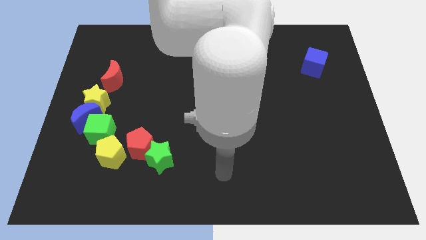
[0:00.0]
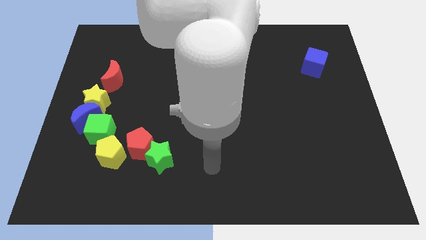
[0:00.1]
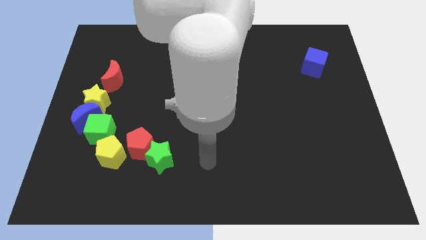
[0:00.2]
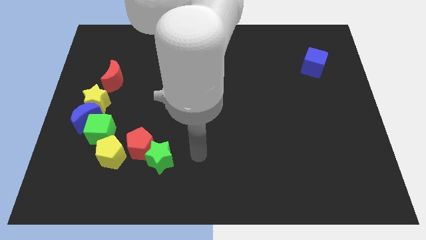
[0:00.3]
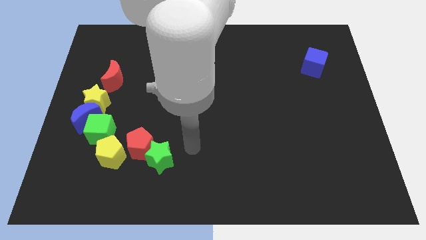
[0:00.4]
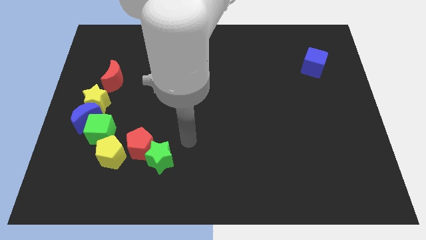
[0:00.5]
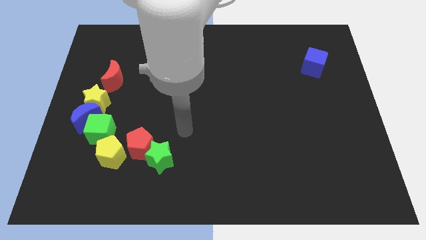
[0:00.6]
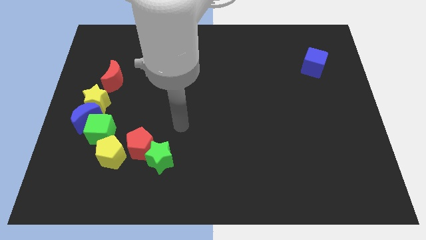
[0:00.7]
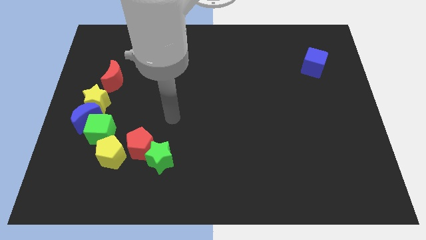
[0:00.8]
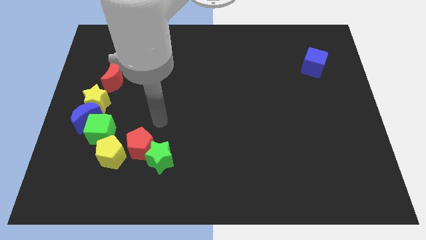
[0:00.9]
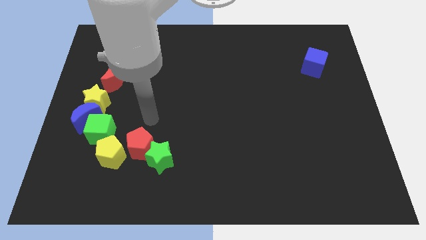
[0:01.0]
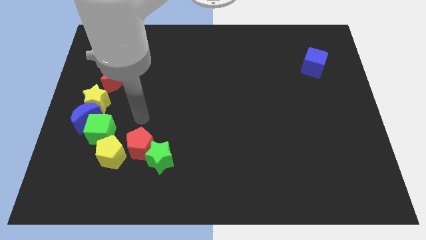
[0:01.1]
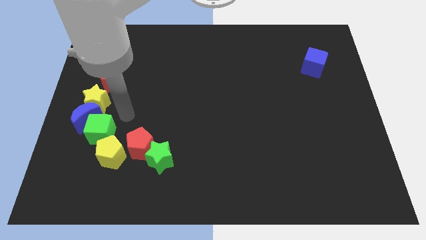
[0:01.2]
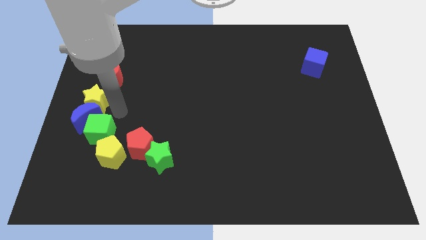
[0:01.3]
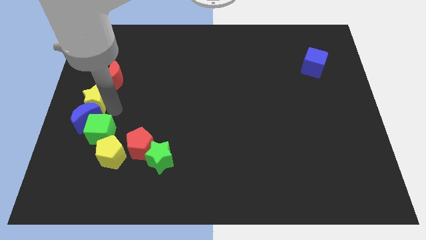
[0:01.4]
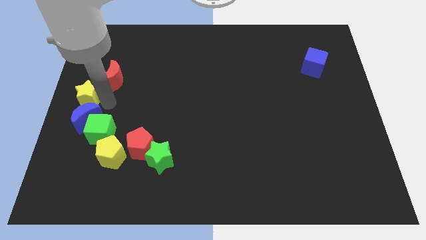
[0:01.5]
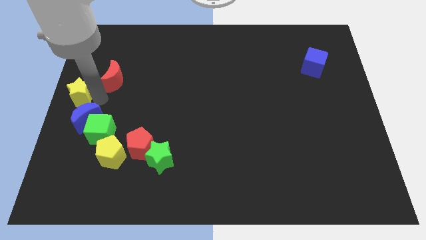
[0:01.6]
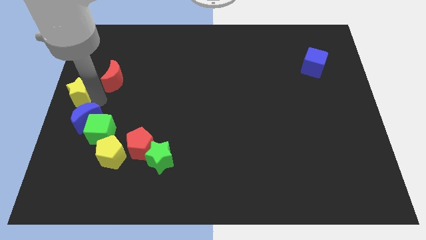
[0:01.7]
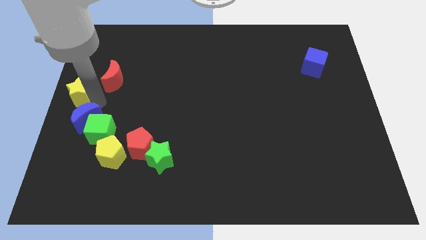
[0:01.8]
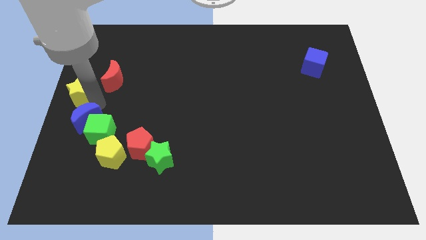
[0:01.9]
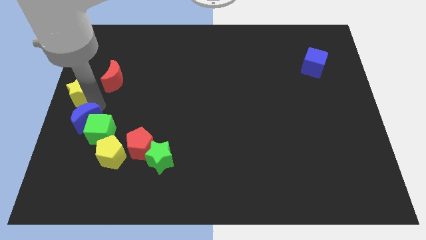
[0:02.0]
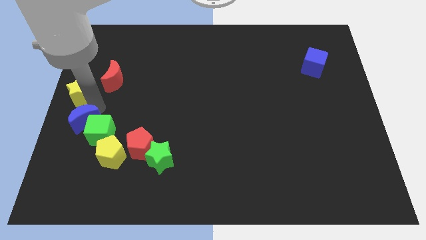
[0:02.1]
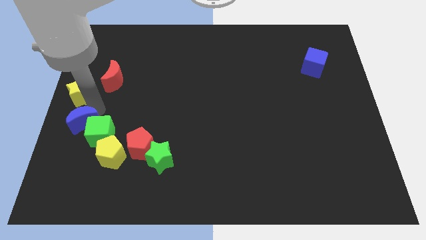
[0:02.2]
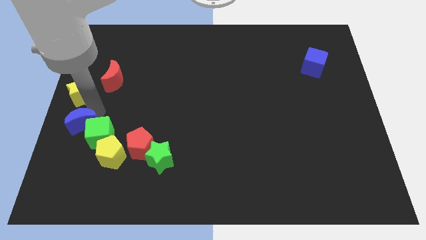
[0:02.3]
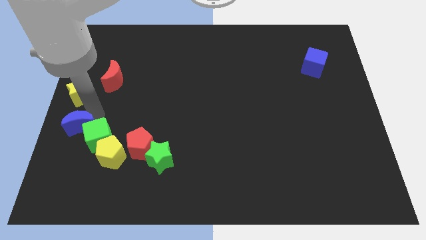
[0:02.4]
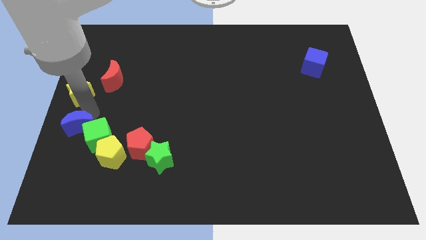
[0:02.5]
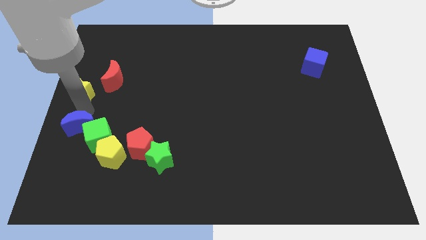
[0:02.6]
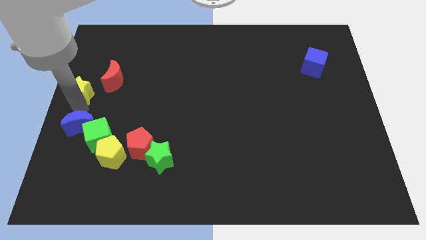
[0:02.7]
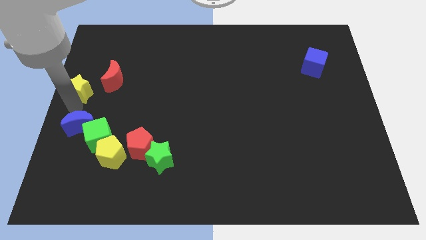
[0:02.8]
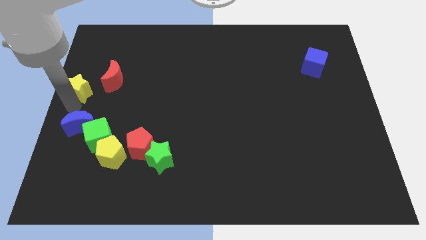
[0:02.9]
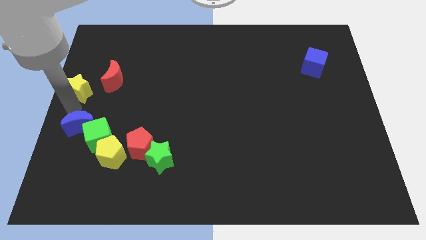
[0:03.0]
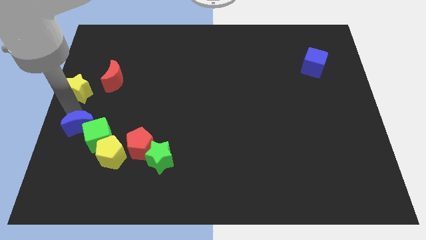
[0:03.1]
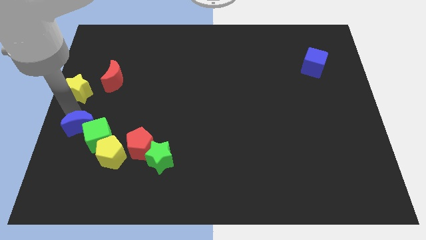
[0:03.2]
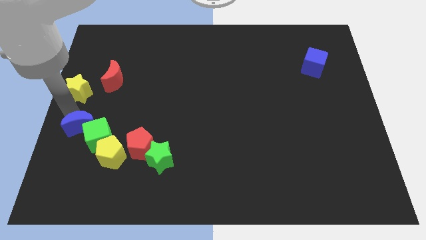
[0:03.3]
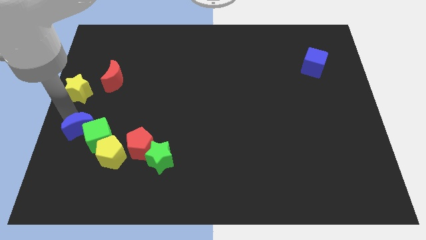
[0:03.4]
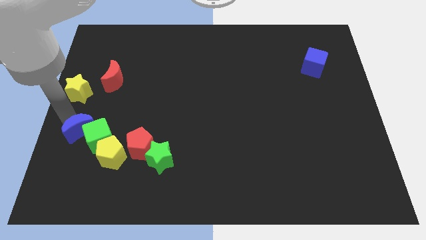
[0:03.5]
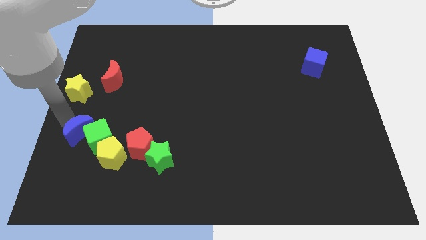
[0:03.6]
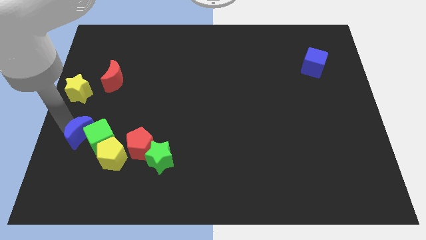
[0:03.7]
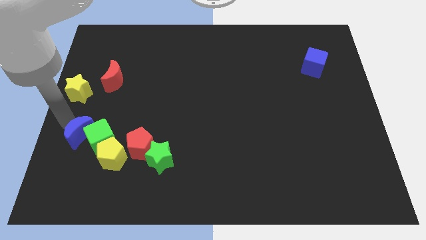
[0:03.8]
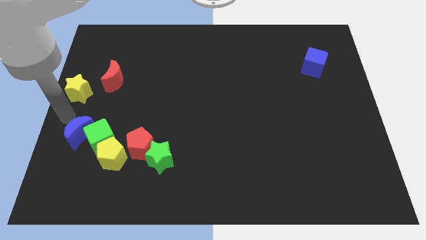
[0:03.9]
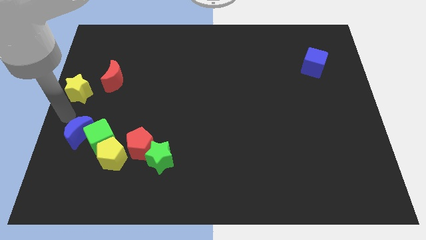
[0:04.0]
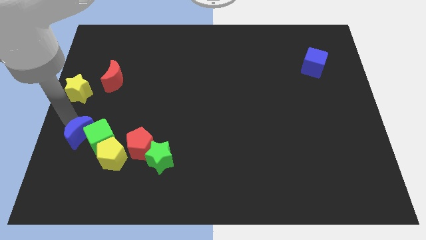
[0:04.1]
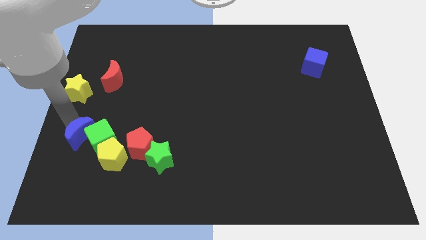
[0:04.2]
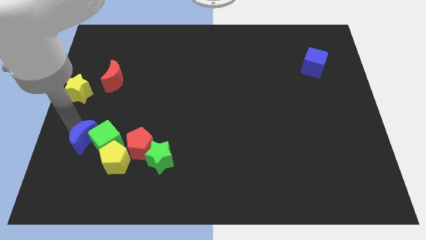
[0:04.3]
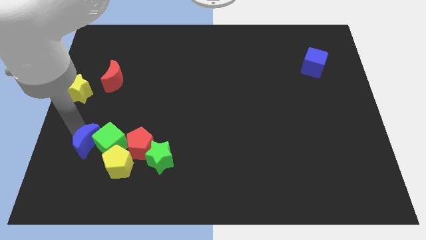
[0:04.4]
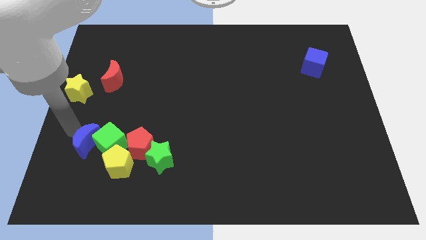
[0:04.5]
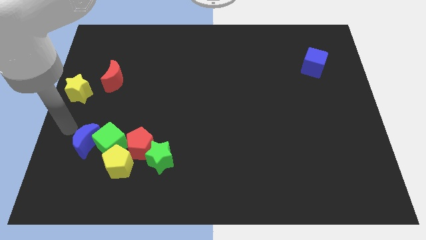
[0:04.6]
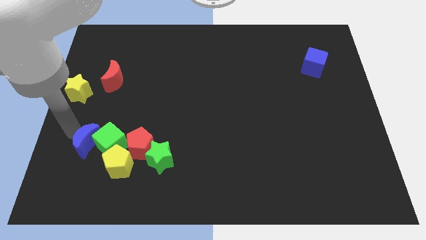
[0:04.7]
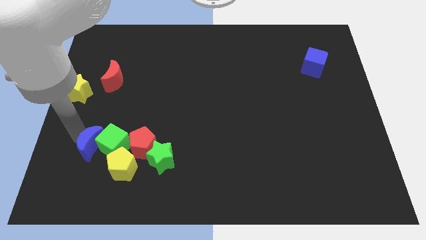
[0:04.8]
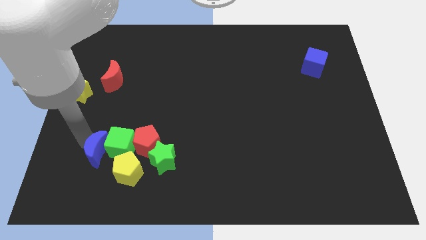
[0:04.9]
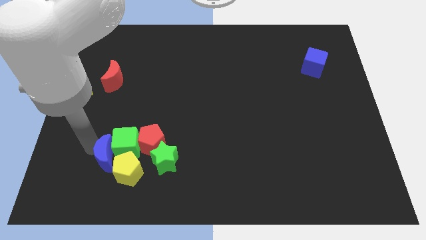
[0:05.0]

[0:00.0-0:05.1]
slide the blue moon to the yellow pentagon

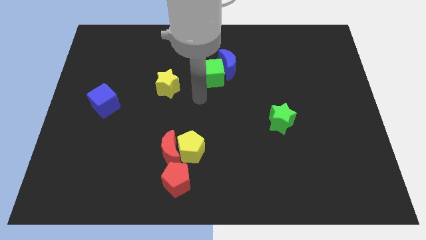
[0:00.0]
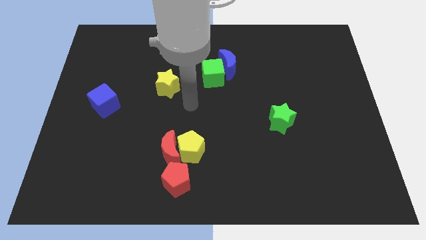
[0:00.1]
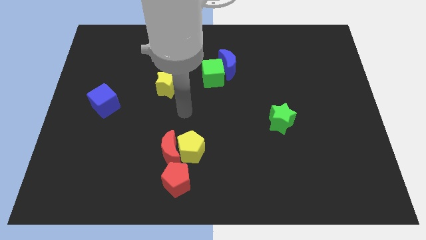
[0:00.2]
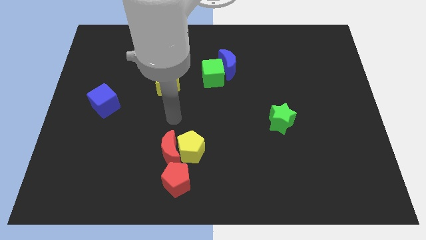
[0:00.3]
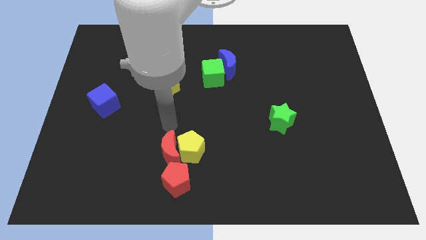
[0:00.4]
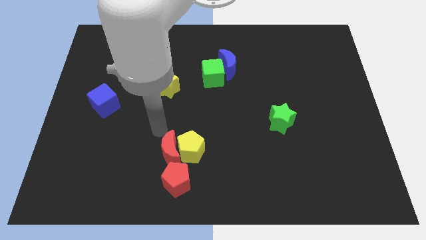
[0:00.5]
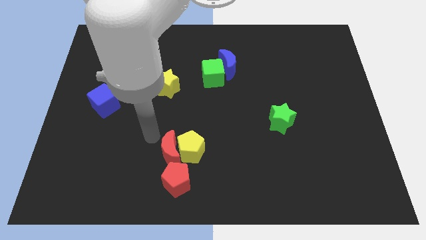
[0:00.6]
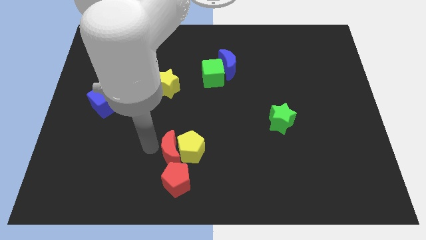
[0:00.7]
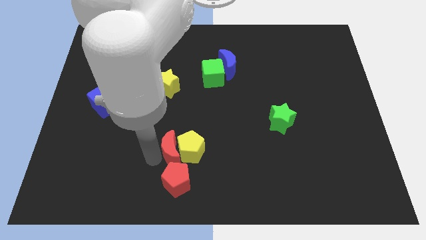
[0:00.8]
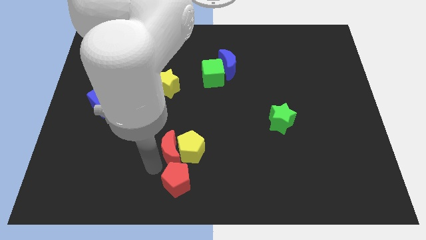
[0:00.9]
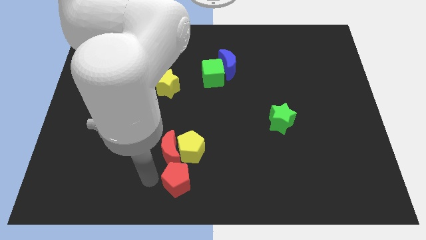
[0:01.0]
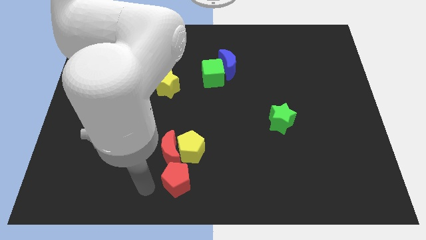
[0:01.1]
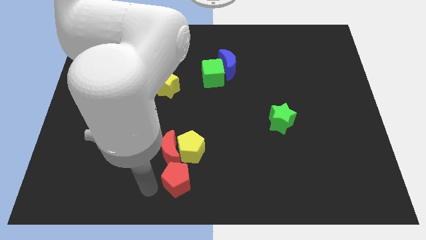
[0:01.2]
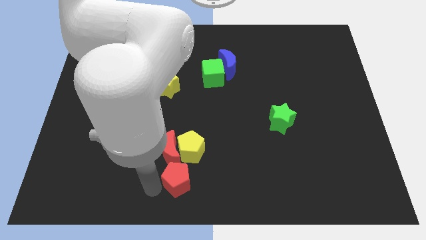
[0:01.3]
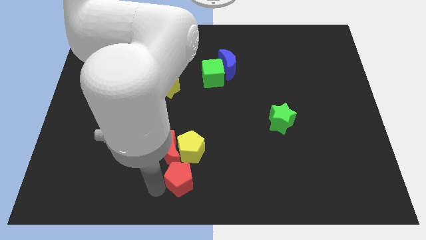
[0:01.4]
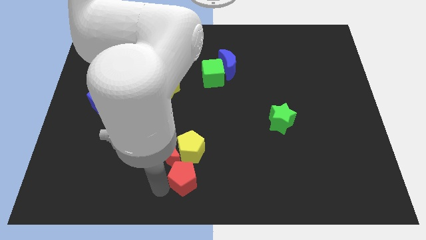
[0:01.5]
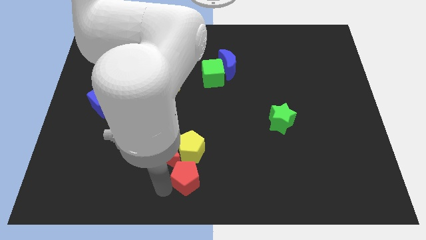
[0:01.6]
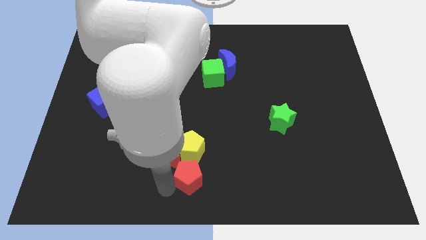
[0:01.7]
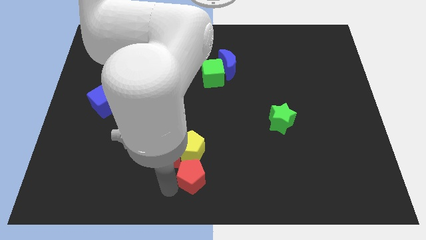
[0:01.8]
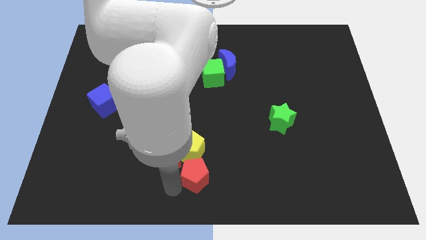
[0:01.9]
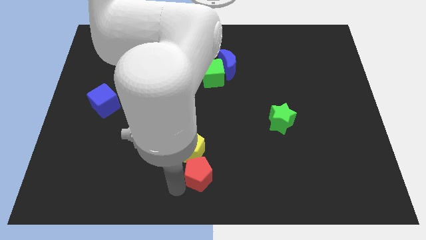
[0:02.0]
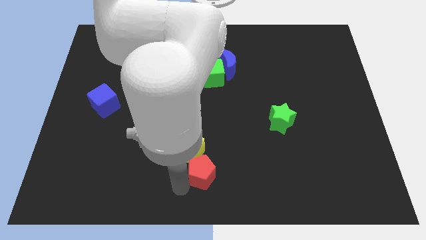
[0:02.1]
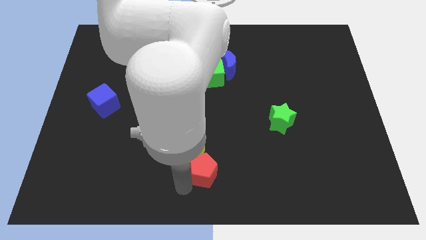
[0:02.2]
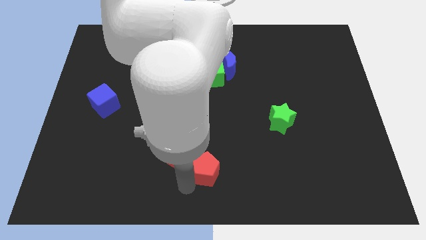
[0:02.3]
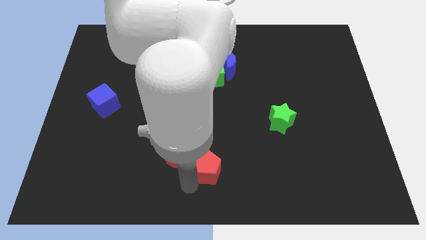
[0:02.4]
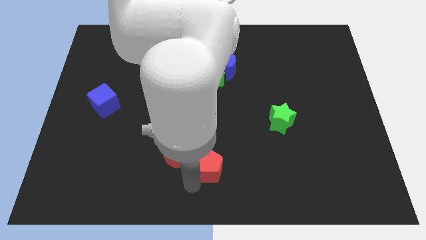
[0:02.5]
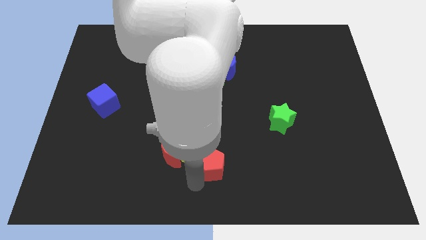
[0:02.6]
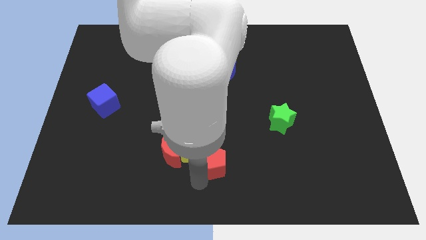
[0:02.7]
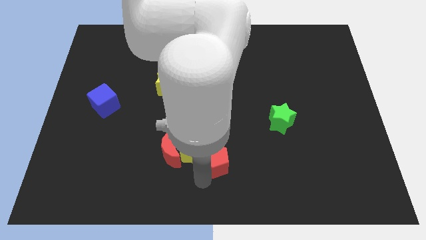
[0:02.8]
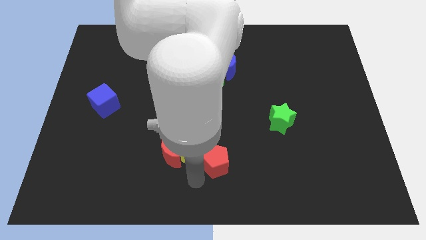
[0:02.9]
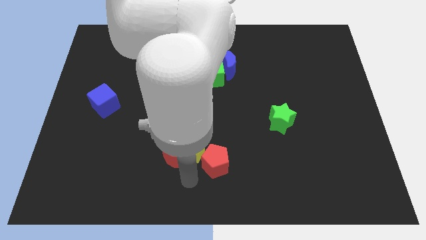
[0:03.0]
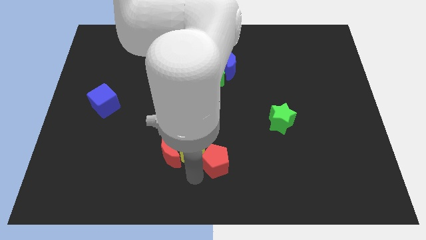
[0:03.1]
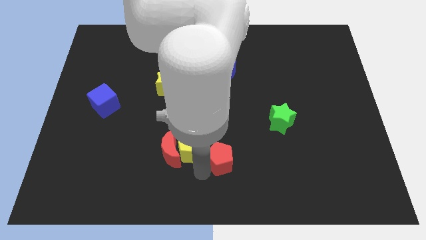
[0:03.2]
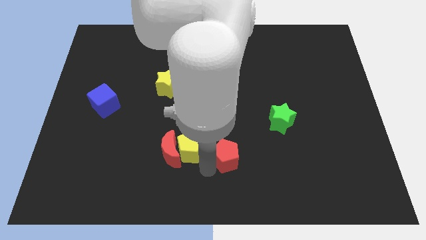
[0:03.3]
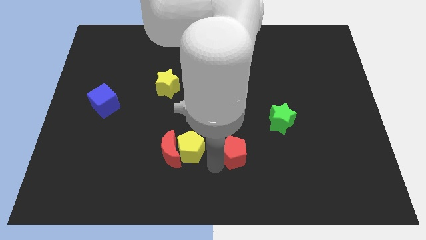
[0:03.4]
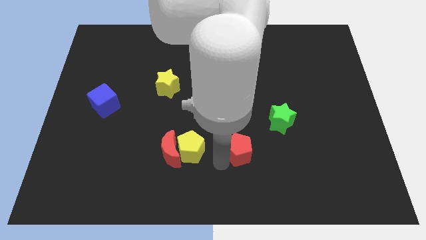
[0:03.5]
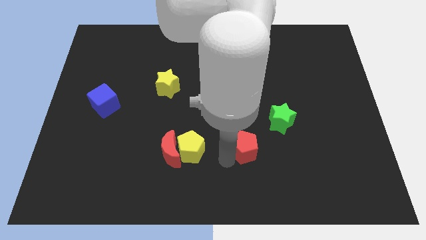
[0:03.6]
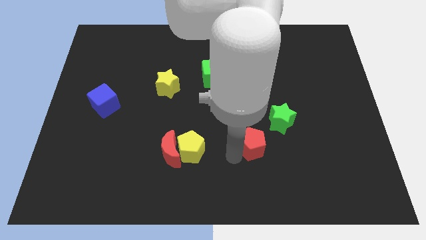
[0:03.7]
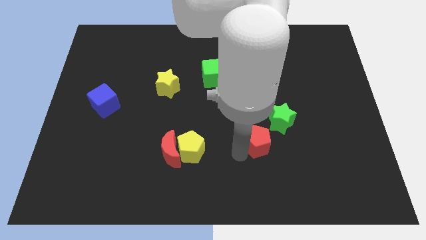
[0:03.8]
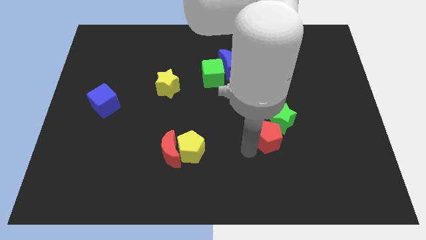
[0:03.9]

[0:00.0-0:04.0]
put the red pentagon towards the green star
